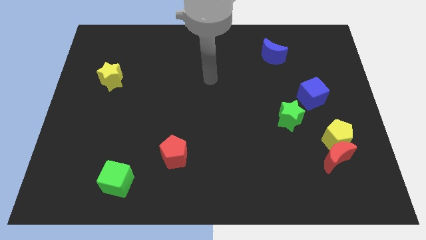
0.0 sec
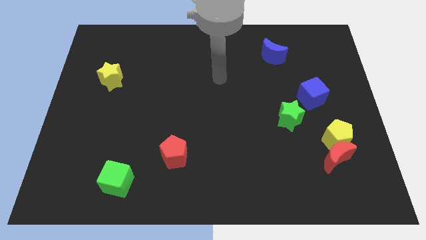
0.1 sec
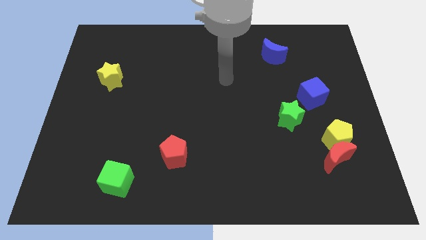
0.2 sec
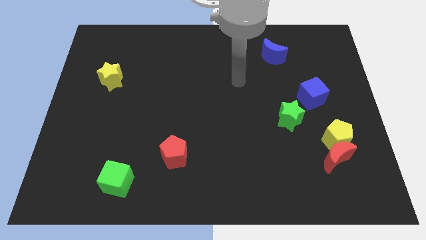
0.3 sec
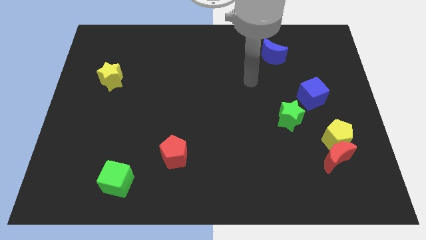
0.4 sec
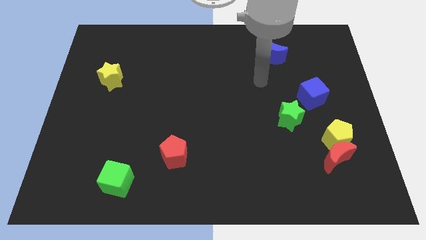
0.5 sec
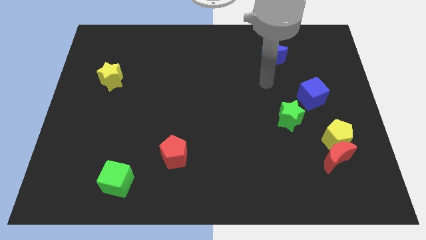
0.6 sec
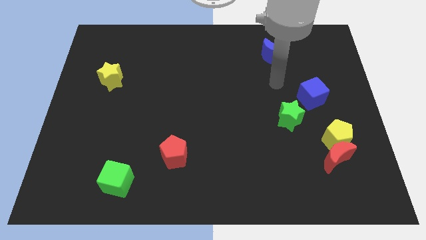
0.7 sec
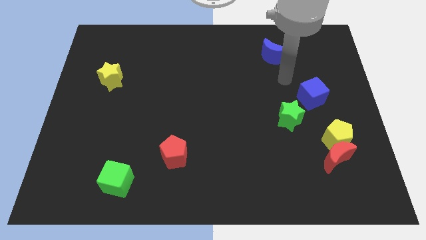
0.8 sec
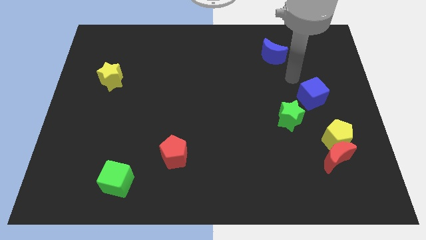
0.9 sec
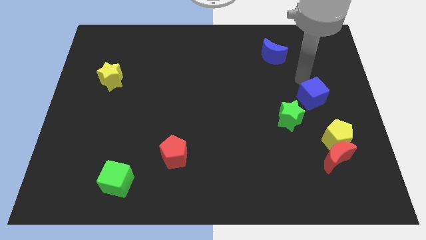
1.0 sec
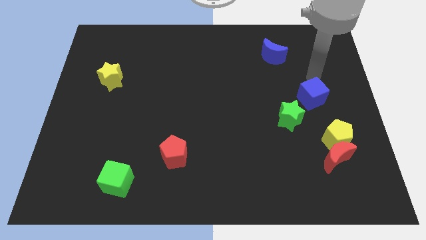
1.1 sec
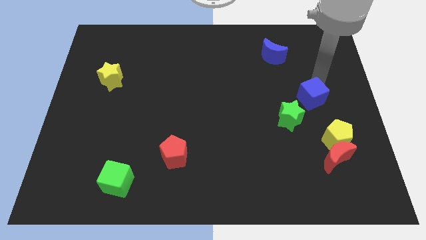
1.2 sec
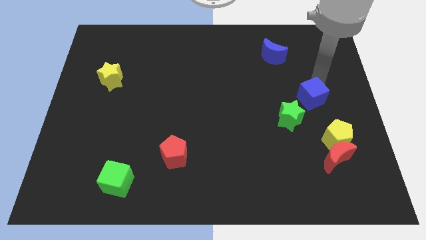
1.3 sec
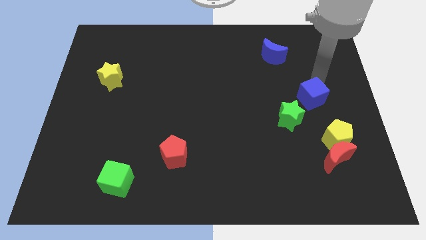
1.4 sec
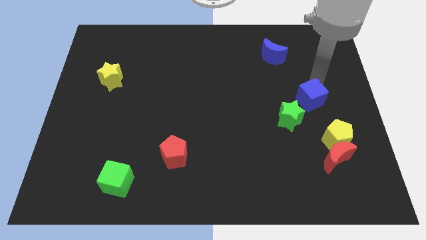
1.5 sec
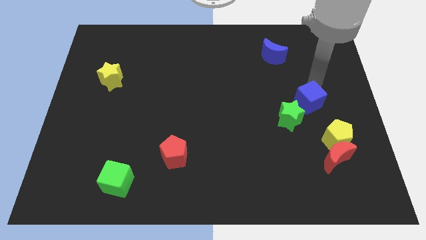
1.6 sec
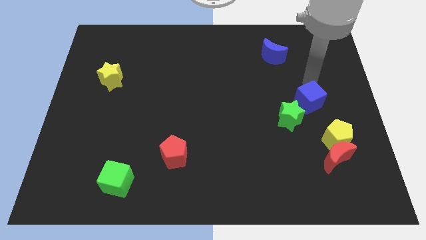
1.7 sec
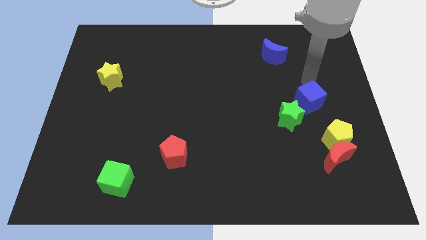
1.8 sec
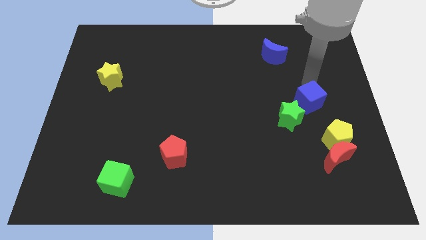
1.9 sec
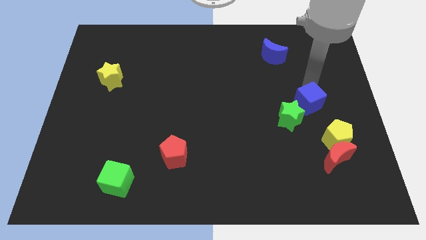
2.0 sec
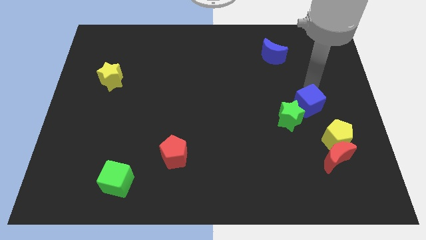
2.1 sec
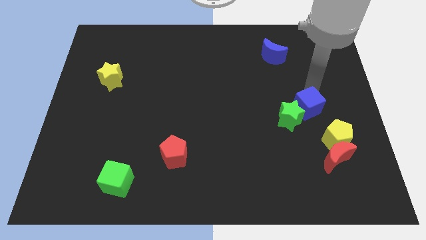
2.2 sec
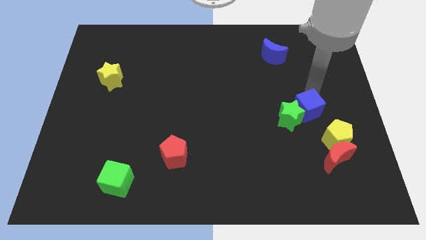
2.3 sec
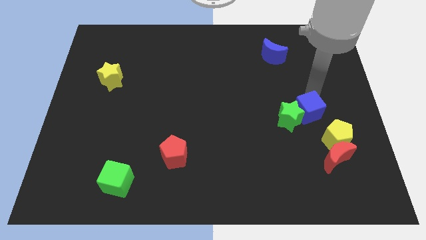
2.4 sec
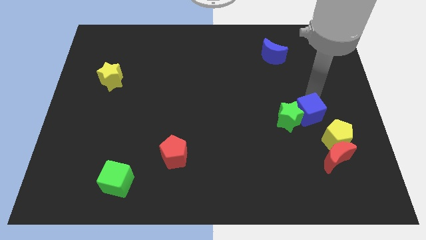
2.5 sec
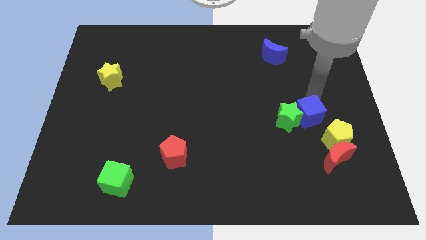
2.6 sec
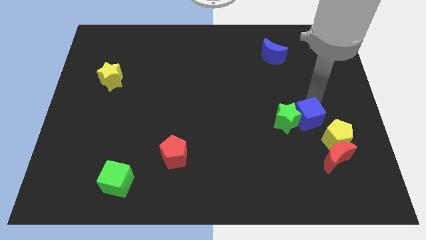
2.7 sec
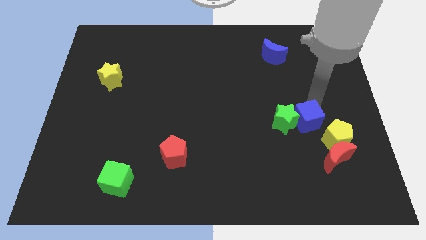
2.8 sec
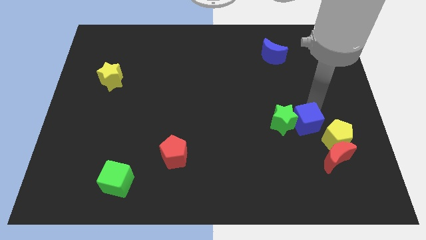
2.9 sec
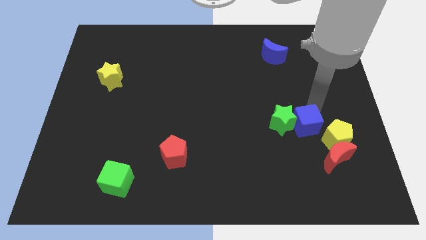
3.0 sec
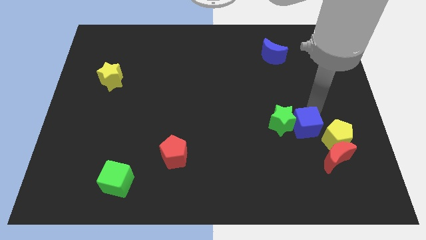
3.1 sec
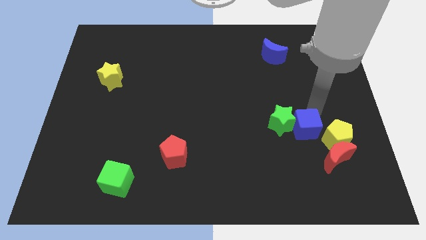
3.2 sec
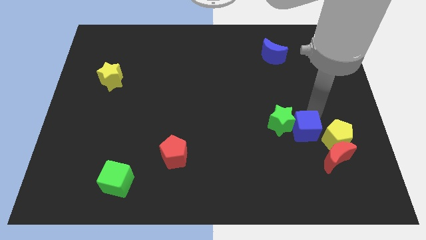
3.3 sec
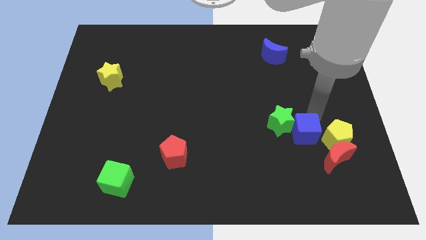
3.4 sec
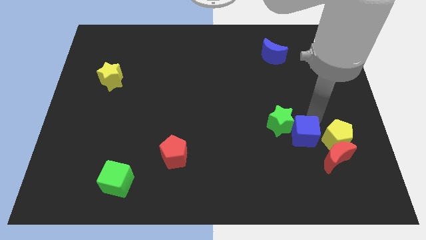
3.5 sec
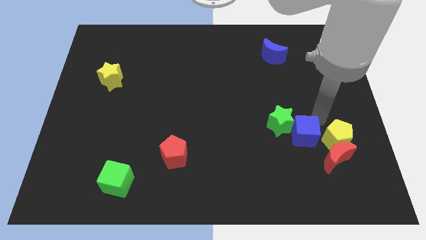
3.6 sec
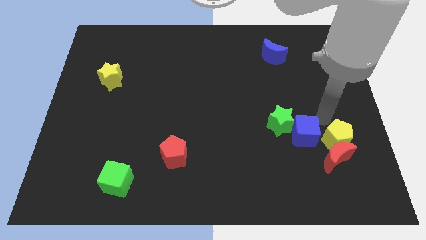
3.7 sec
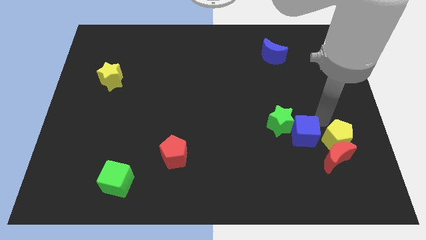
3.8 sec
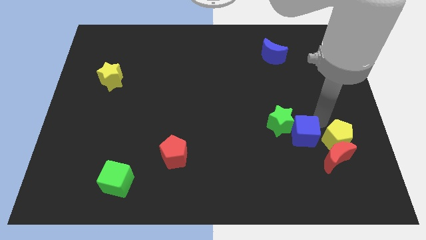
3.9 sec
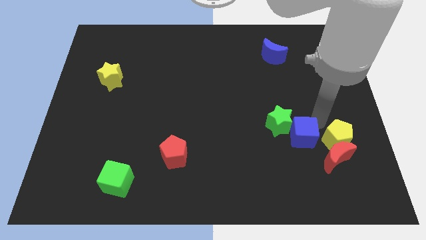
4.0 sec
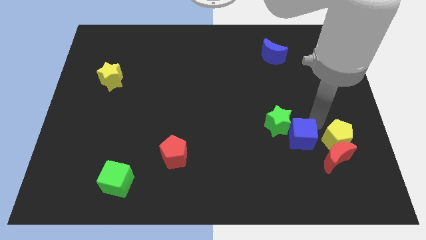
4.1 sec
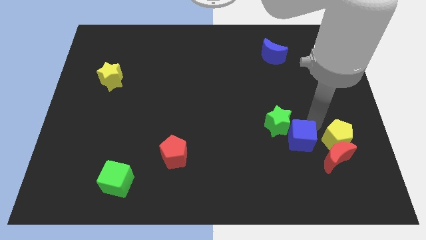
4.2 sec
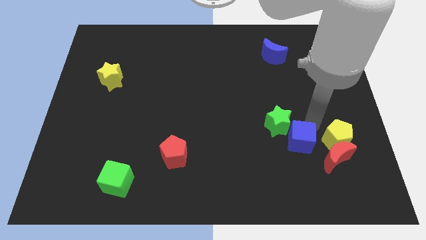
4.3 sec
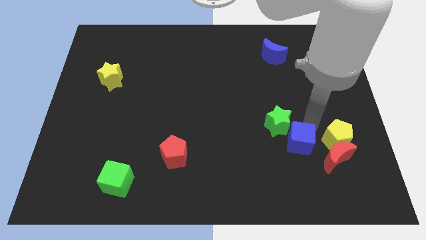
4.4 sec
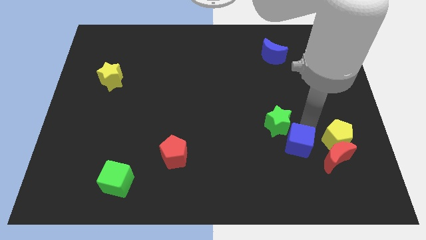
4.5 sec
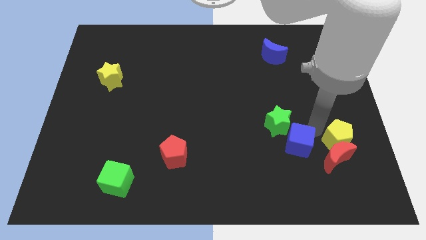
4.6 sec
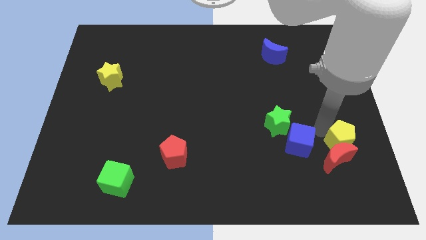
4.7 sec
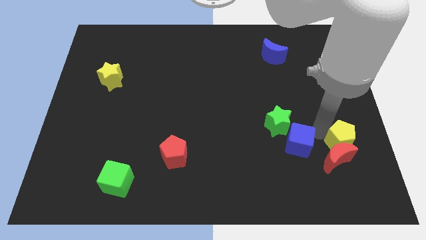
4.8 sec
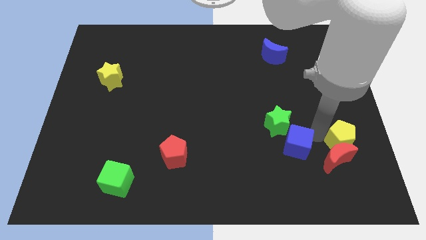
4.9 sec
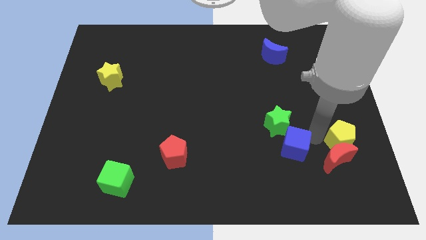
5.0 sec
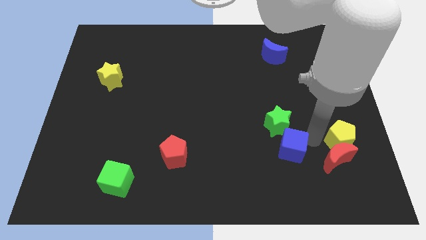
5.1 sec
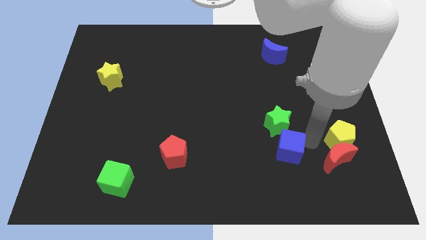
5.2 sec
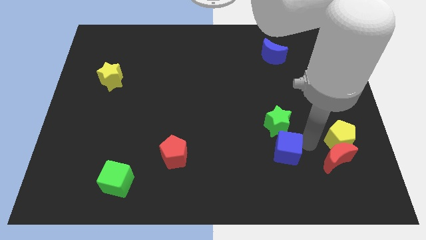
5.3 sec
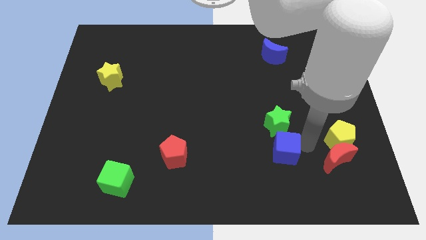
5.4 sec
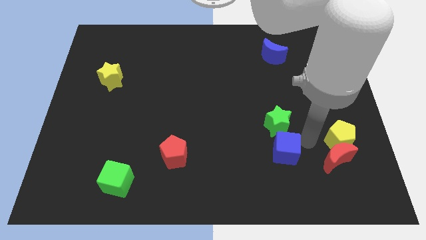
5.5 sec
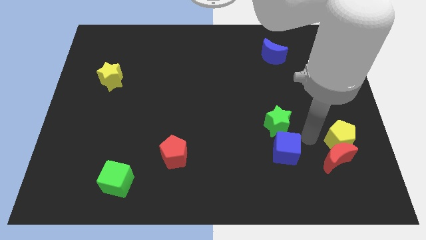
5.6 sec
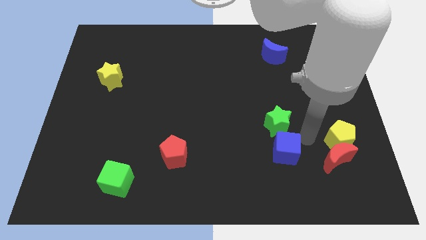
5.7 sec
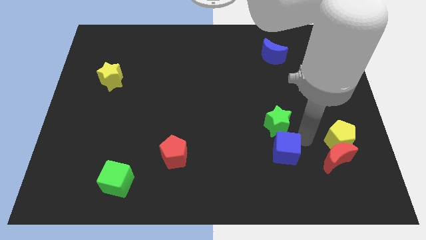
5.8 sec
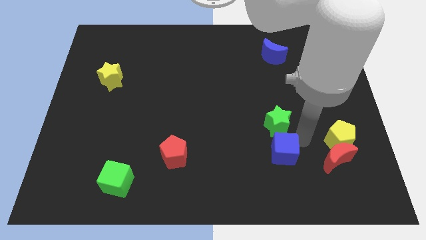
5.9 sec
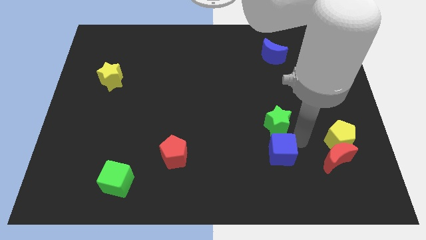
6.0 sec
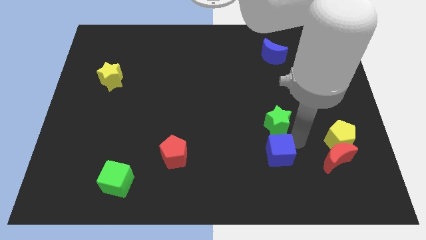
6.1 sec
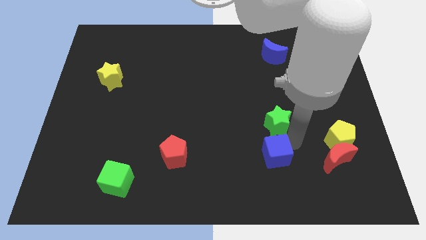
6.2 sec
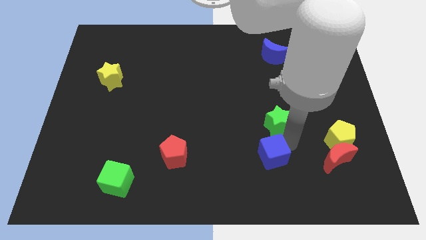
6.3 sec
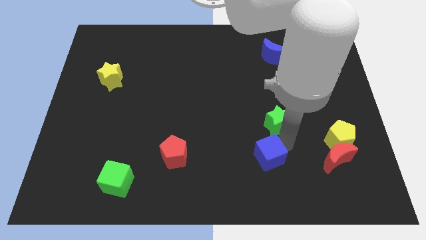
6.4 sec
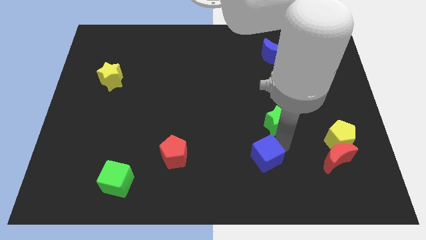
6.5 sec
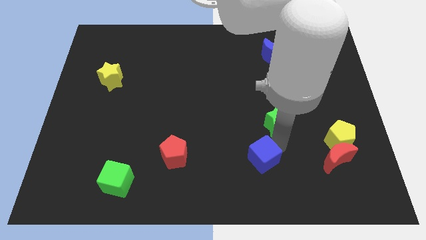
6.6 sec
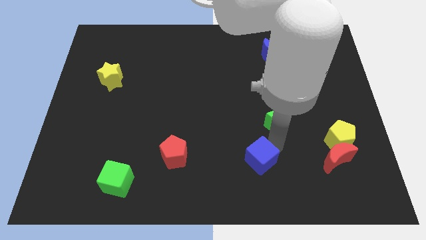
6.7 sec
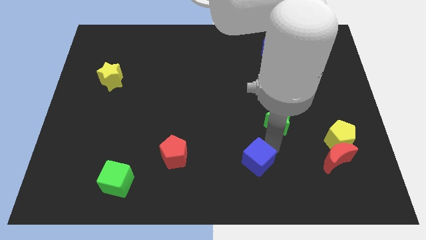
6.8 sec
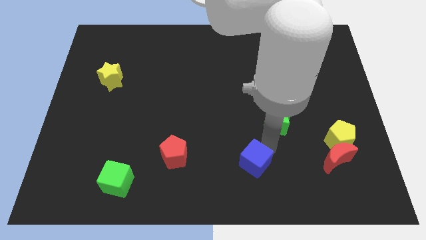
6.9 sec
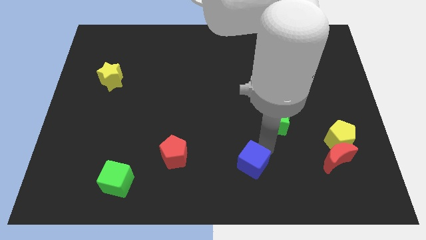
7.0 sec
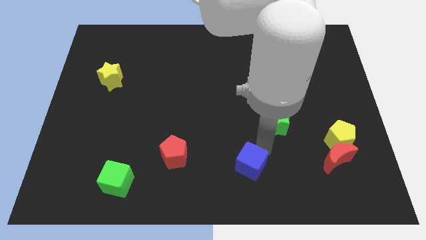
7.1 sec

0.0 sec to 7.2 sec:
push the blue cube to the bottom
